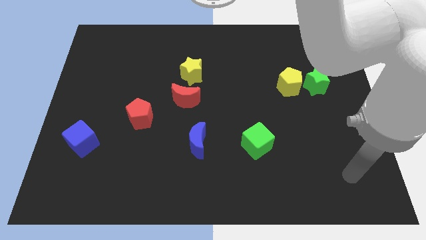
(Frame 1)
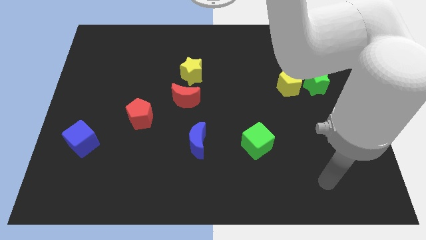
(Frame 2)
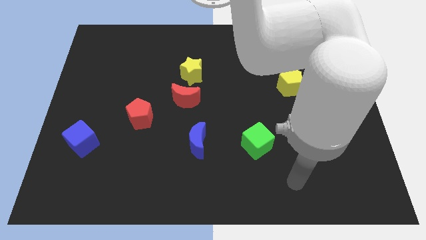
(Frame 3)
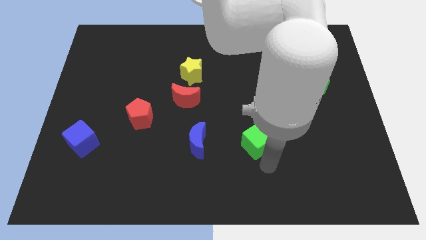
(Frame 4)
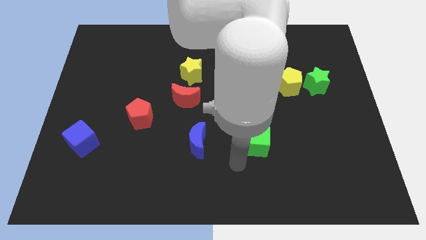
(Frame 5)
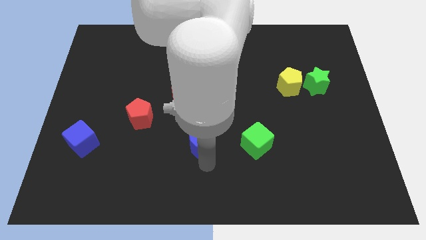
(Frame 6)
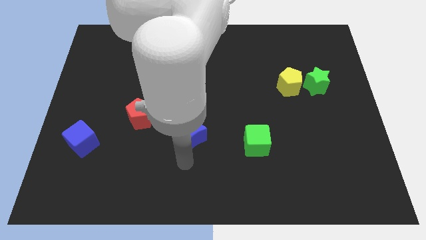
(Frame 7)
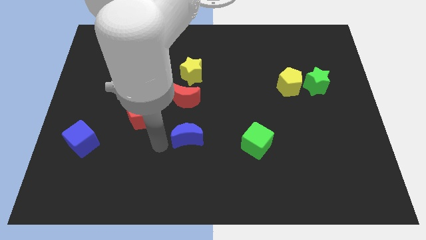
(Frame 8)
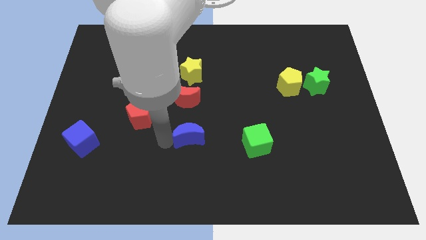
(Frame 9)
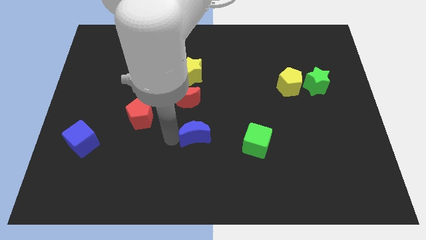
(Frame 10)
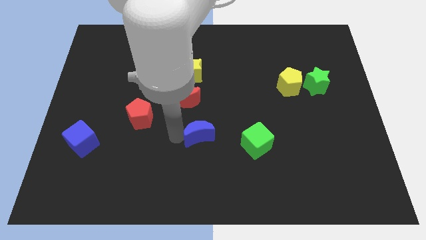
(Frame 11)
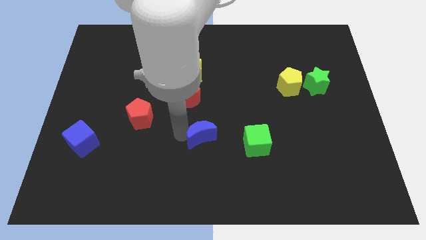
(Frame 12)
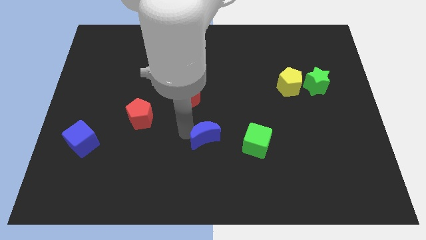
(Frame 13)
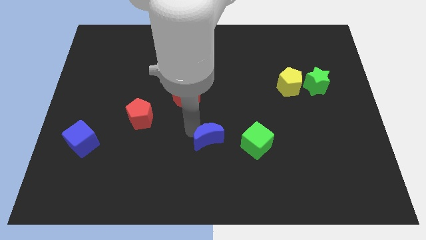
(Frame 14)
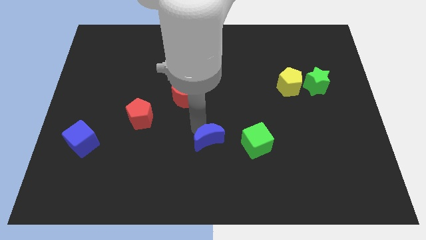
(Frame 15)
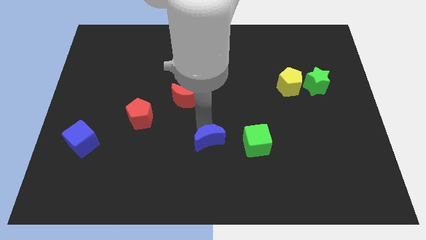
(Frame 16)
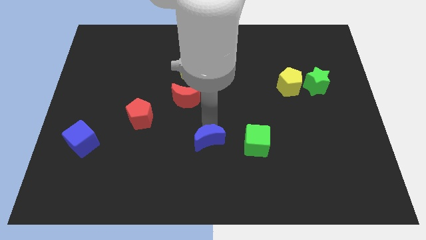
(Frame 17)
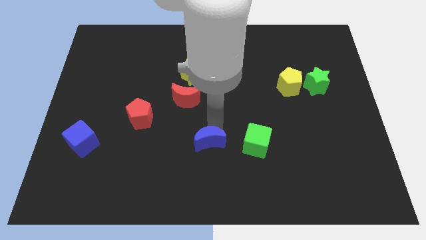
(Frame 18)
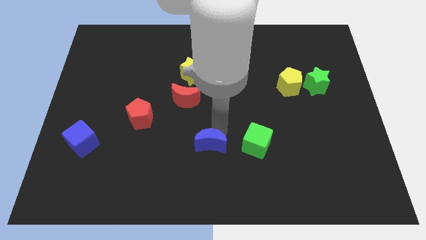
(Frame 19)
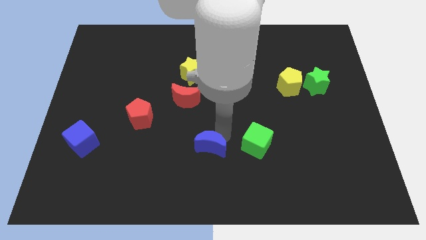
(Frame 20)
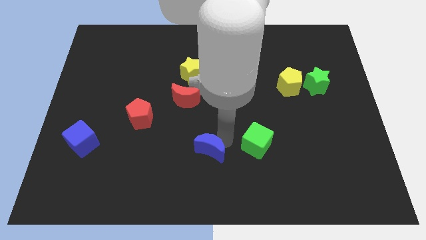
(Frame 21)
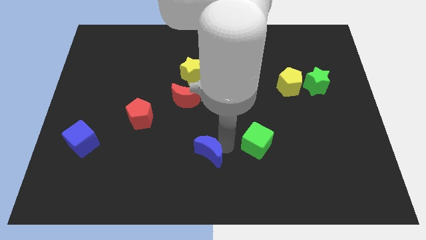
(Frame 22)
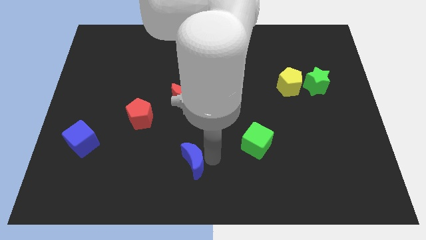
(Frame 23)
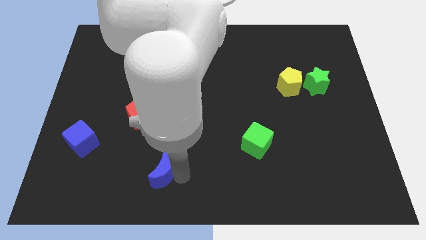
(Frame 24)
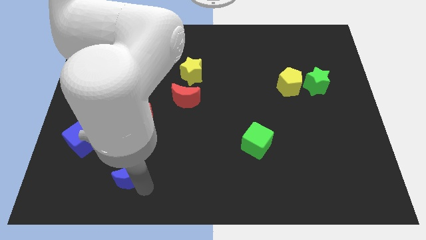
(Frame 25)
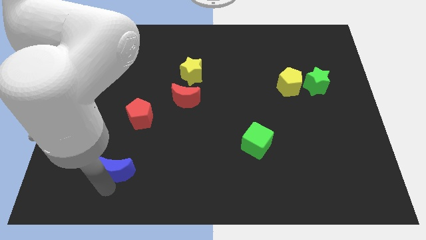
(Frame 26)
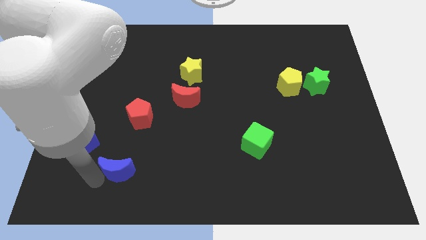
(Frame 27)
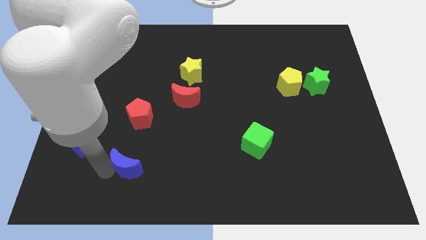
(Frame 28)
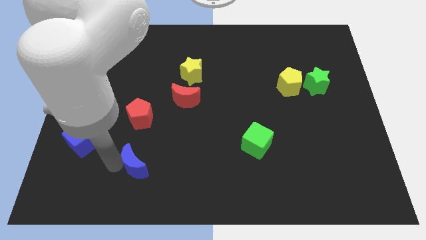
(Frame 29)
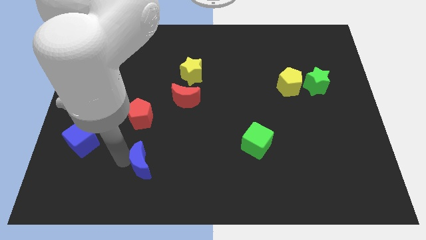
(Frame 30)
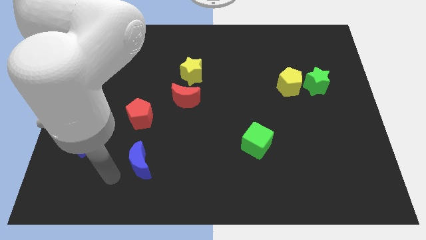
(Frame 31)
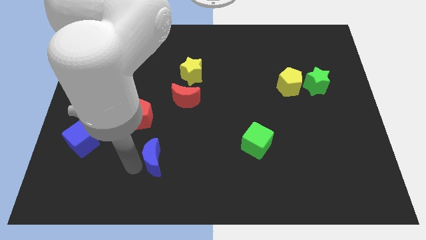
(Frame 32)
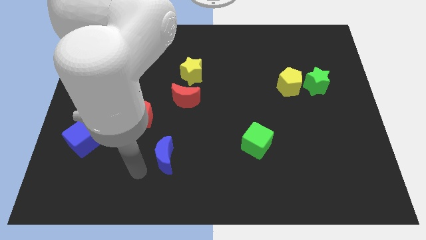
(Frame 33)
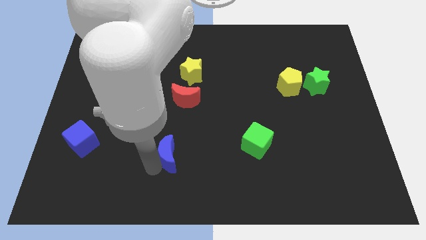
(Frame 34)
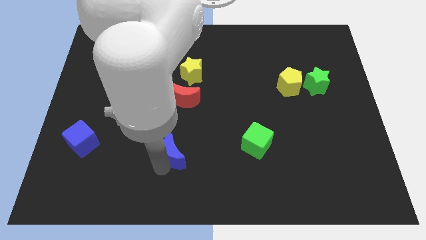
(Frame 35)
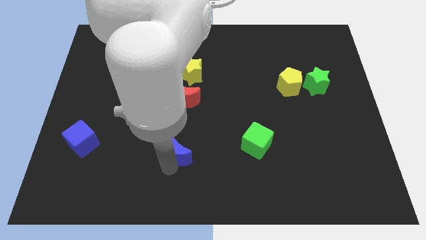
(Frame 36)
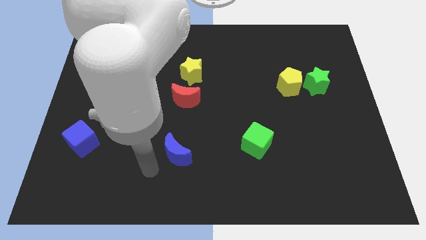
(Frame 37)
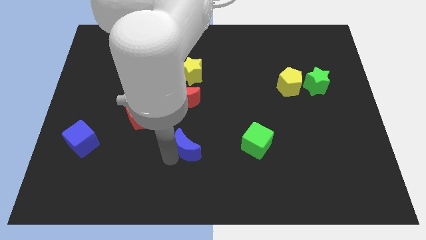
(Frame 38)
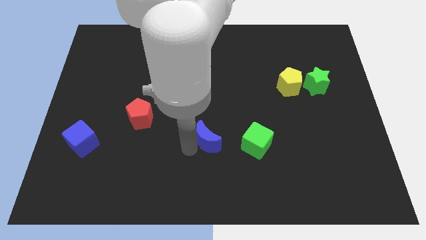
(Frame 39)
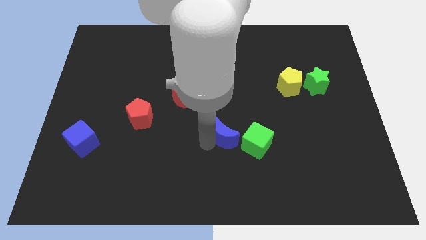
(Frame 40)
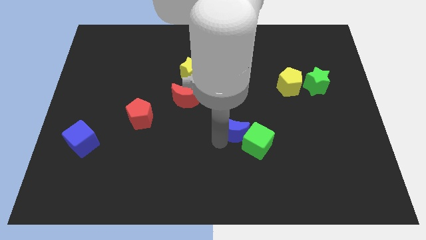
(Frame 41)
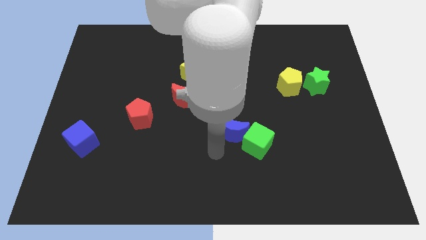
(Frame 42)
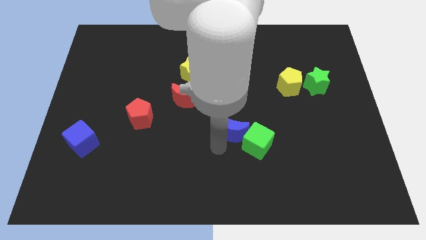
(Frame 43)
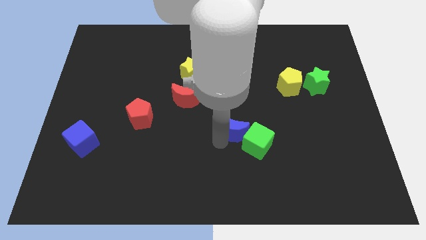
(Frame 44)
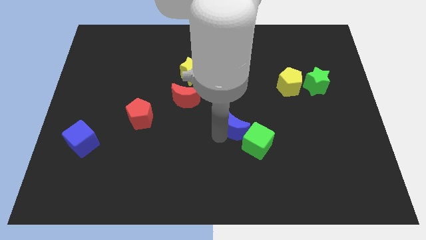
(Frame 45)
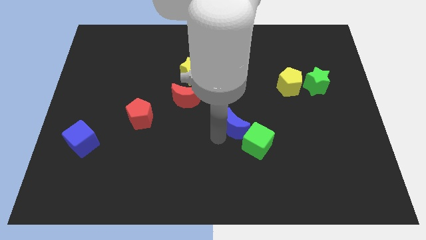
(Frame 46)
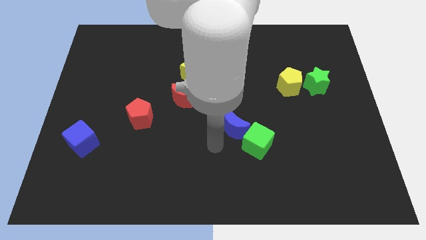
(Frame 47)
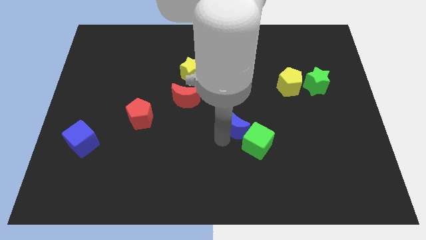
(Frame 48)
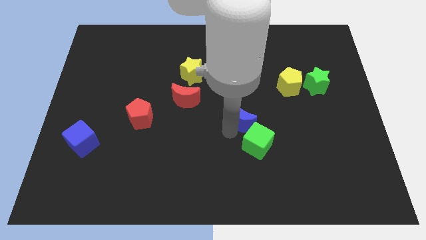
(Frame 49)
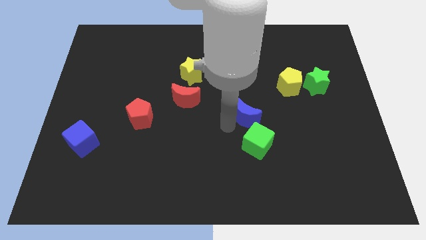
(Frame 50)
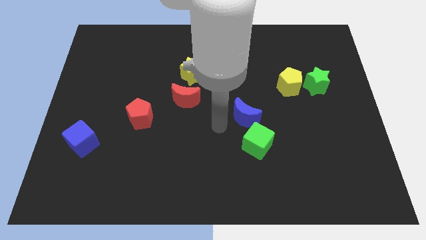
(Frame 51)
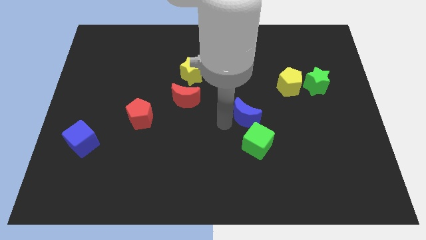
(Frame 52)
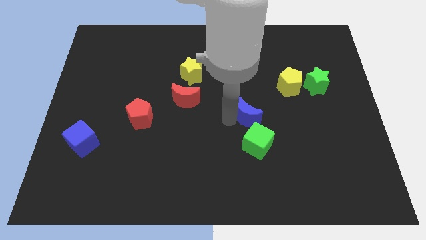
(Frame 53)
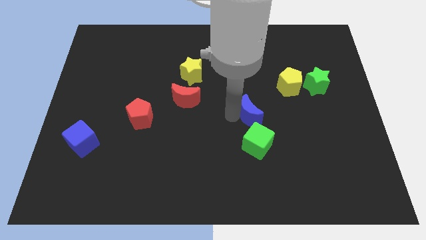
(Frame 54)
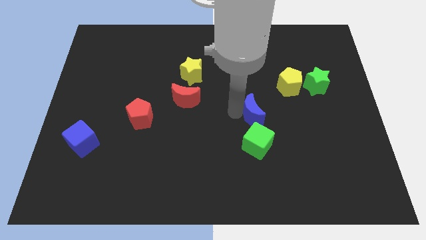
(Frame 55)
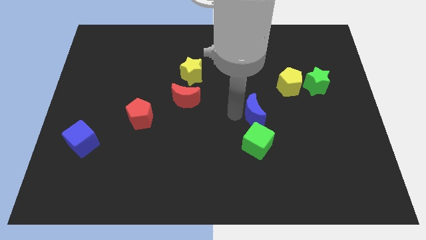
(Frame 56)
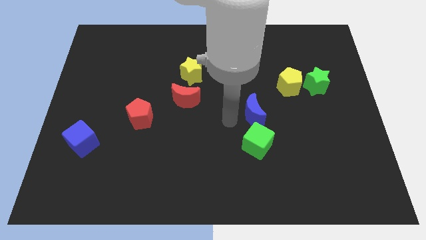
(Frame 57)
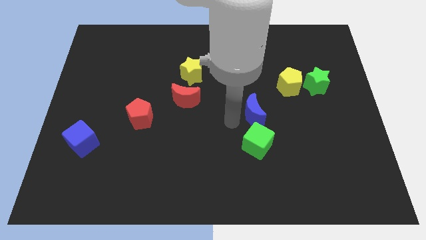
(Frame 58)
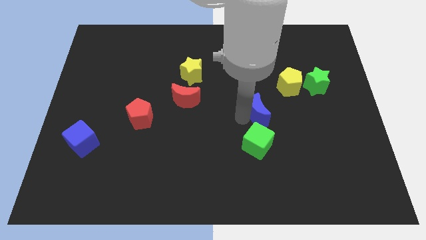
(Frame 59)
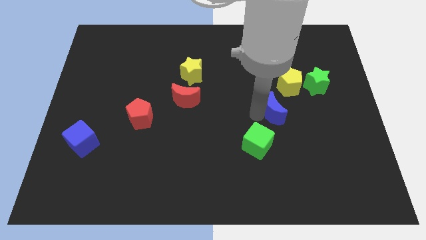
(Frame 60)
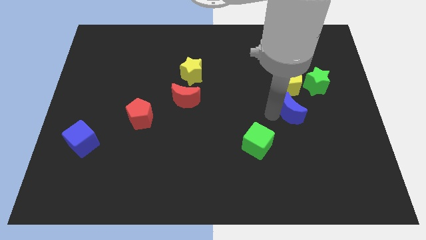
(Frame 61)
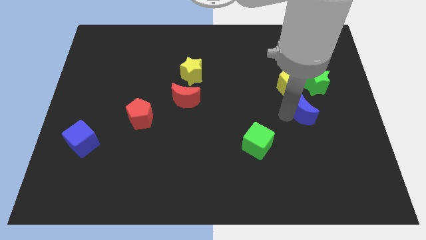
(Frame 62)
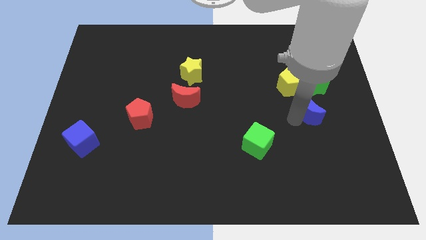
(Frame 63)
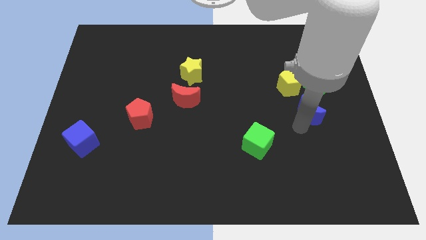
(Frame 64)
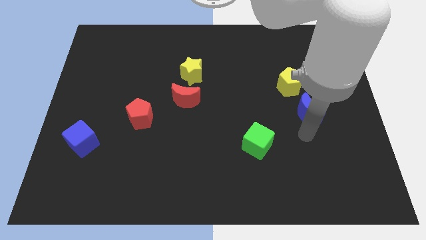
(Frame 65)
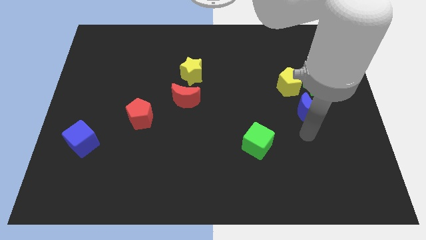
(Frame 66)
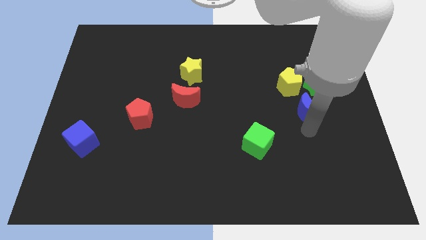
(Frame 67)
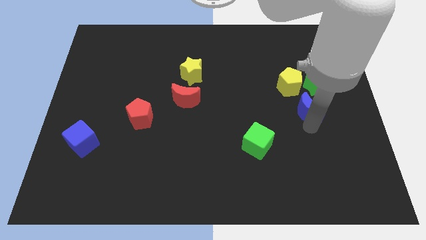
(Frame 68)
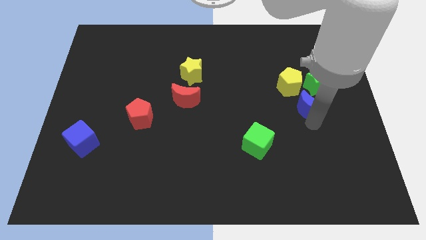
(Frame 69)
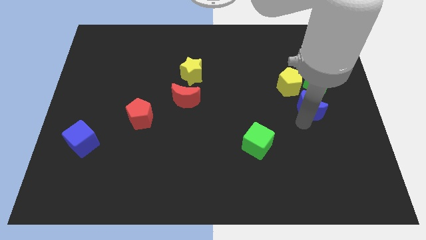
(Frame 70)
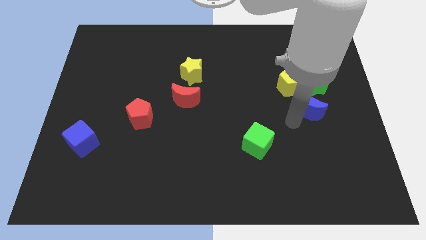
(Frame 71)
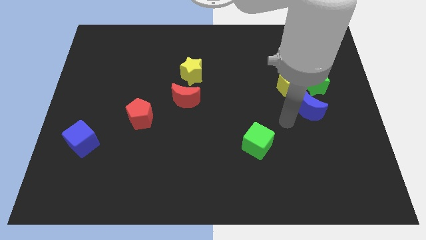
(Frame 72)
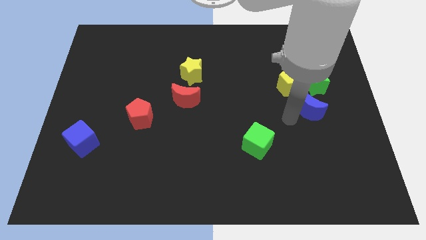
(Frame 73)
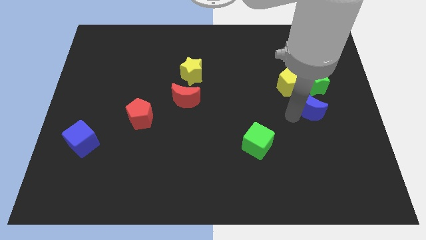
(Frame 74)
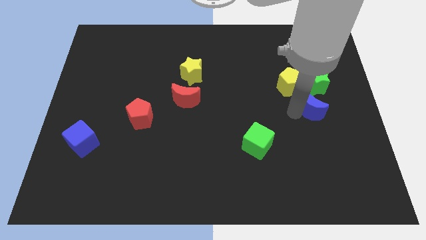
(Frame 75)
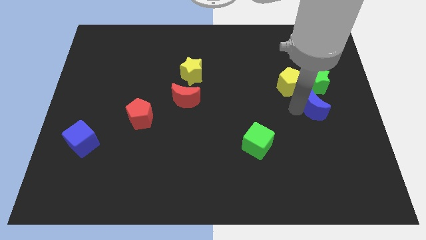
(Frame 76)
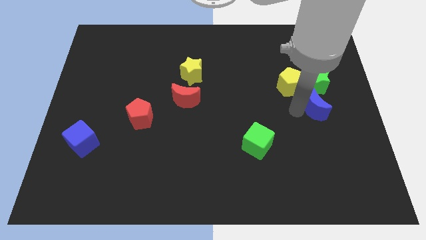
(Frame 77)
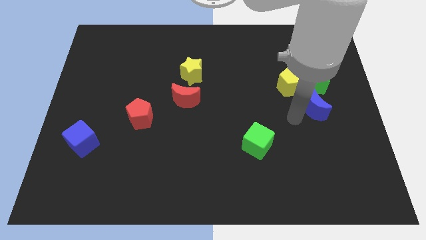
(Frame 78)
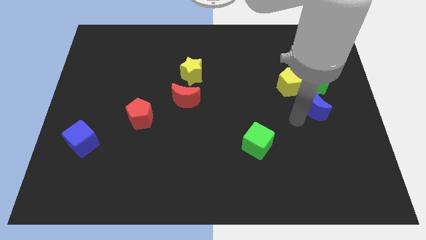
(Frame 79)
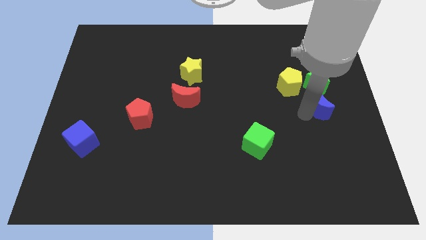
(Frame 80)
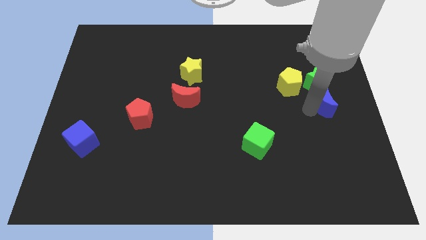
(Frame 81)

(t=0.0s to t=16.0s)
put the blue moon to the right side
